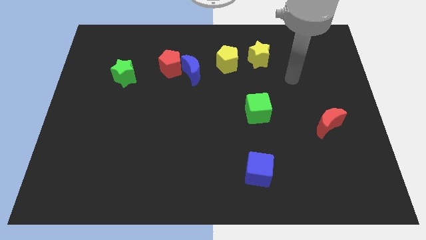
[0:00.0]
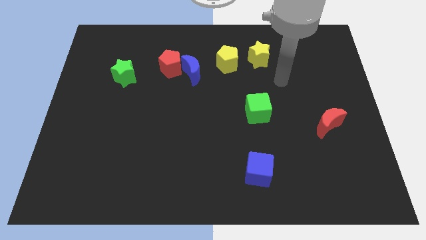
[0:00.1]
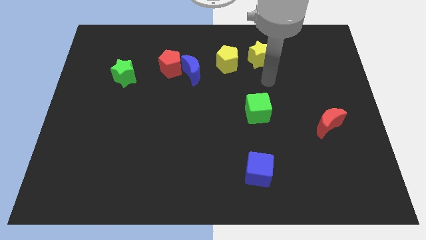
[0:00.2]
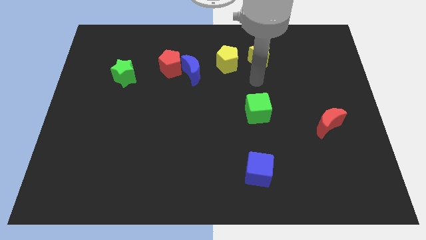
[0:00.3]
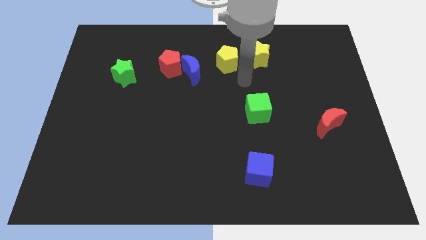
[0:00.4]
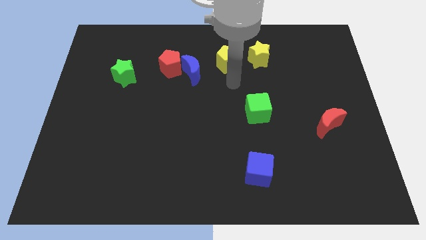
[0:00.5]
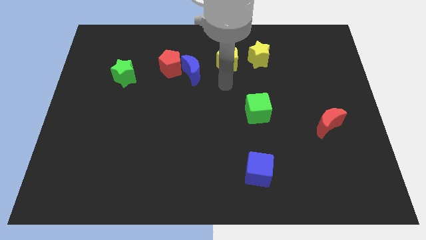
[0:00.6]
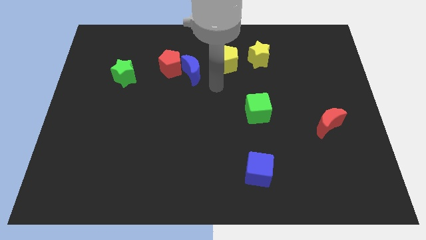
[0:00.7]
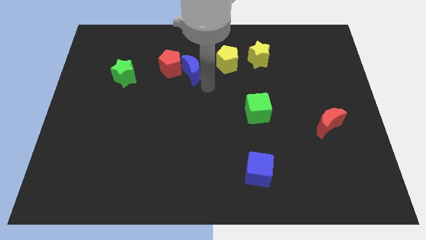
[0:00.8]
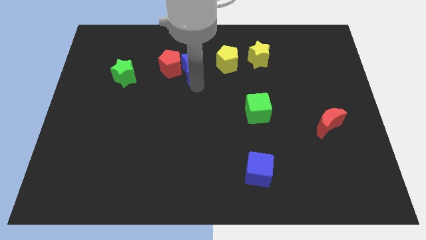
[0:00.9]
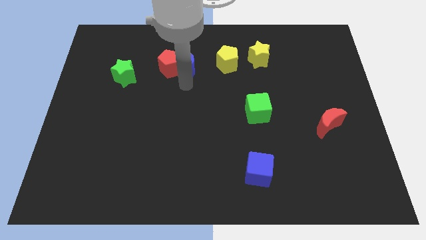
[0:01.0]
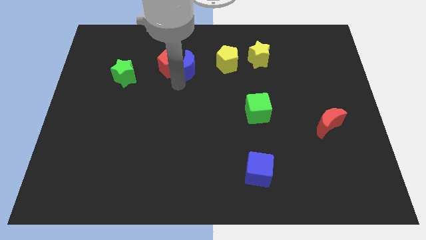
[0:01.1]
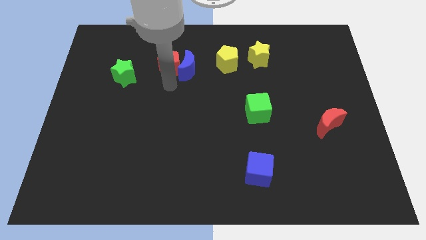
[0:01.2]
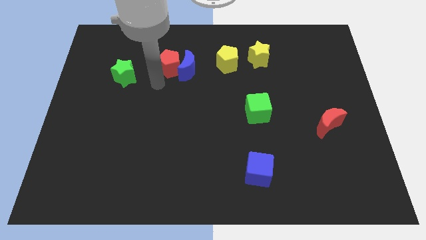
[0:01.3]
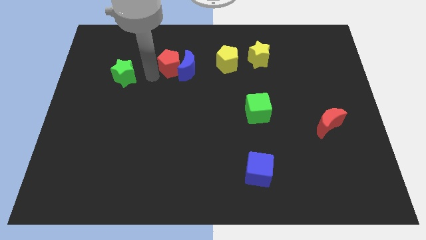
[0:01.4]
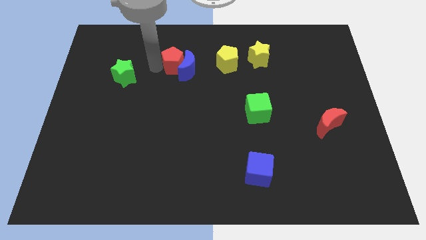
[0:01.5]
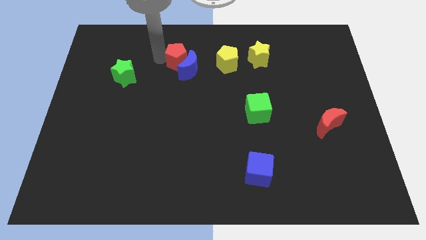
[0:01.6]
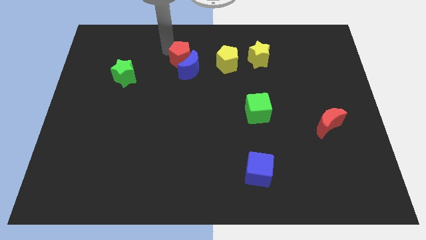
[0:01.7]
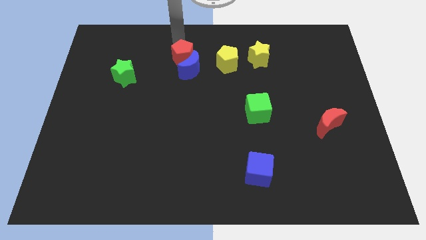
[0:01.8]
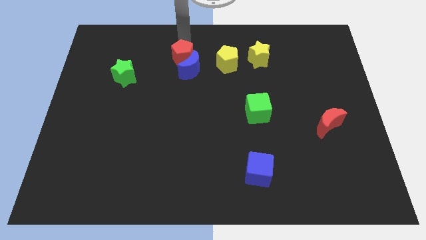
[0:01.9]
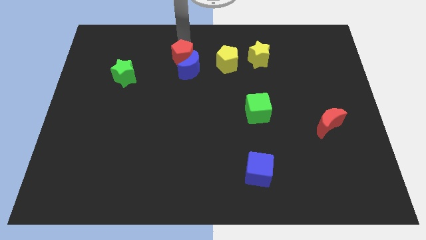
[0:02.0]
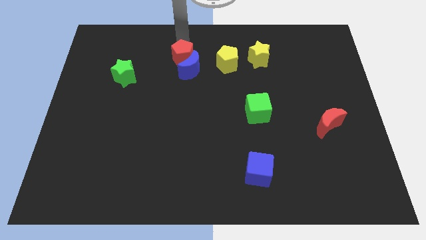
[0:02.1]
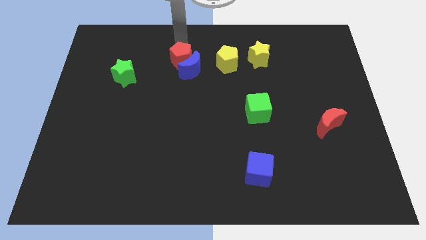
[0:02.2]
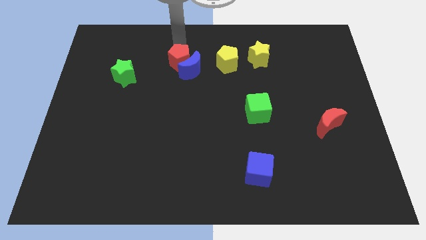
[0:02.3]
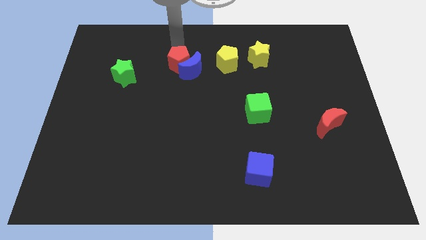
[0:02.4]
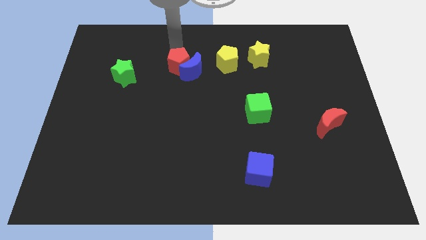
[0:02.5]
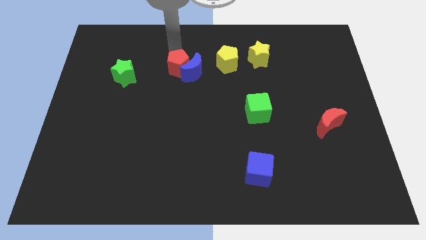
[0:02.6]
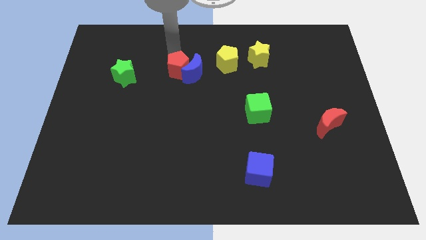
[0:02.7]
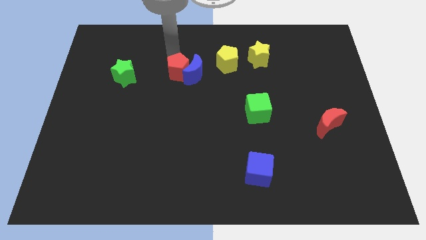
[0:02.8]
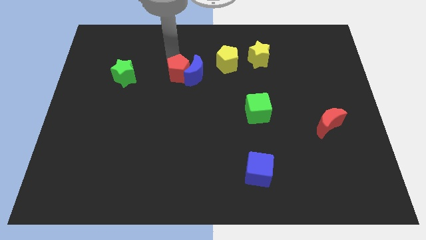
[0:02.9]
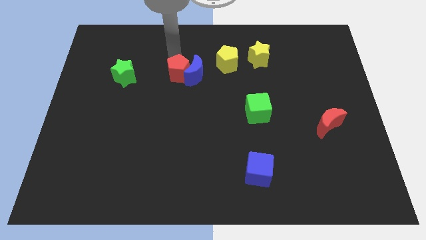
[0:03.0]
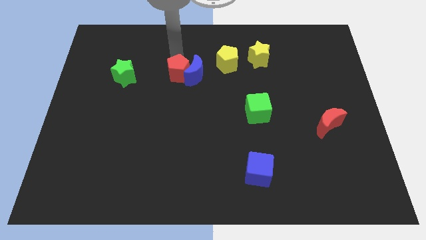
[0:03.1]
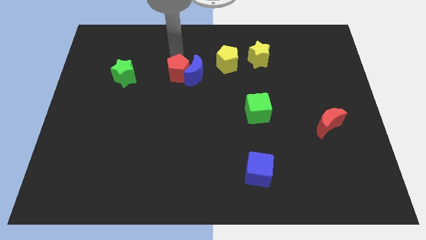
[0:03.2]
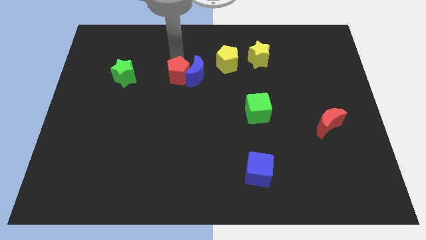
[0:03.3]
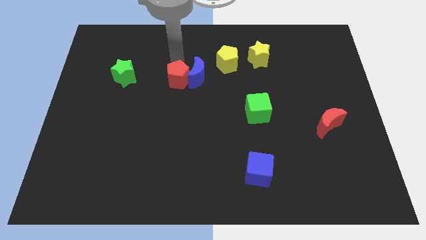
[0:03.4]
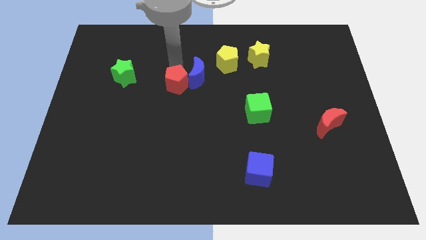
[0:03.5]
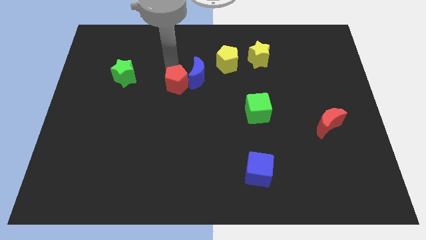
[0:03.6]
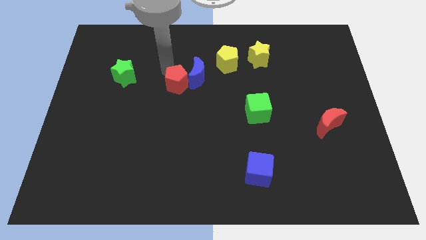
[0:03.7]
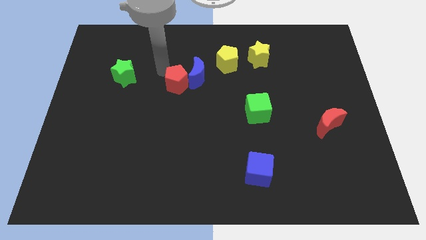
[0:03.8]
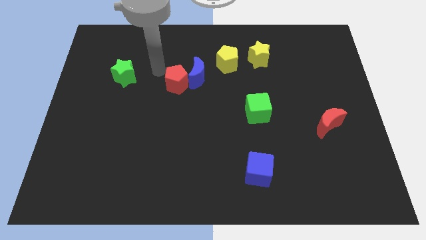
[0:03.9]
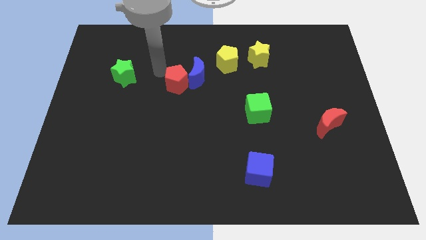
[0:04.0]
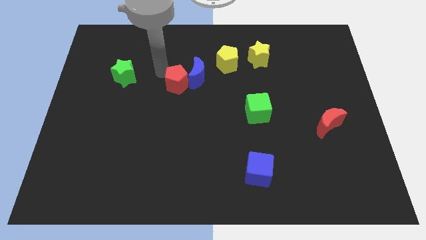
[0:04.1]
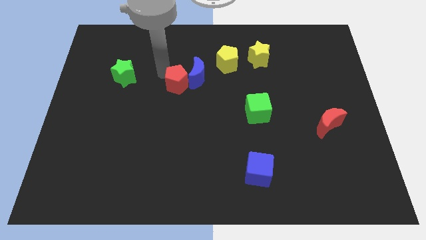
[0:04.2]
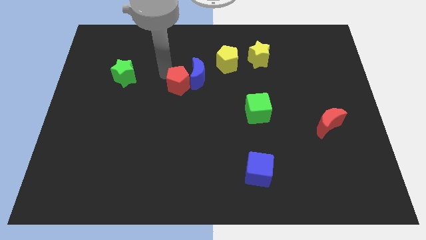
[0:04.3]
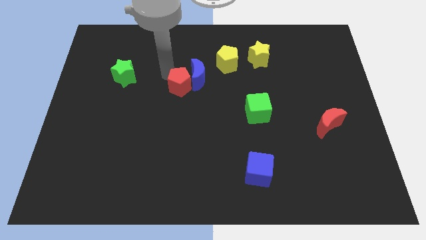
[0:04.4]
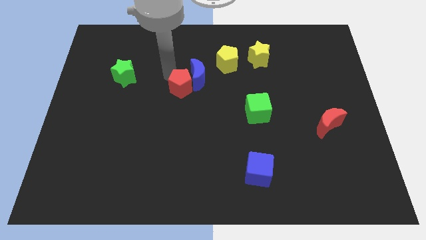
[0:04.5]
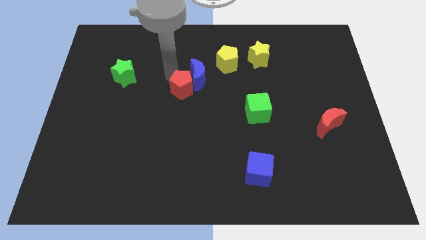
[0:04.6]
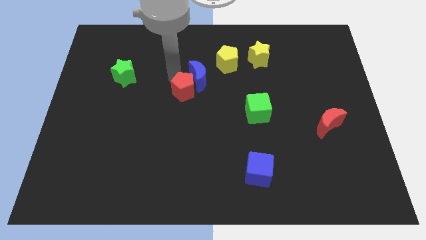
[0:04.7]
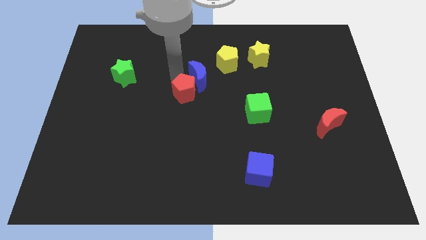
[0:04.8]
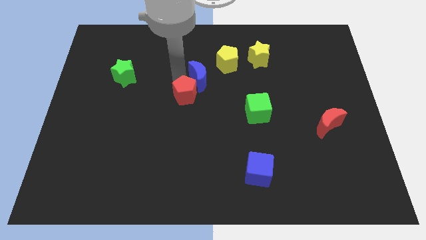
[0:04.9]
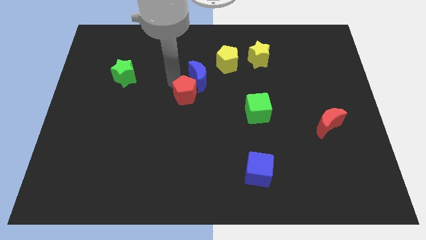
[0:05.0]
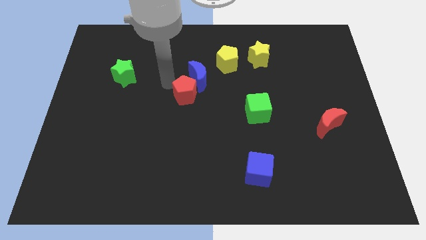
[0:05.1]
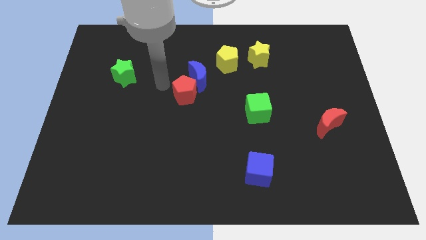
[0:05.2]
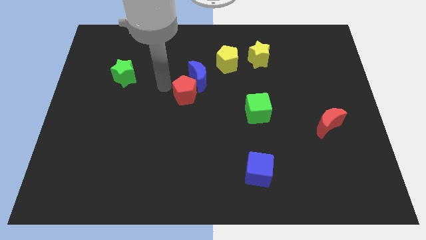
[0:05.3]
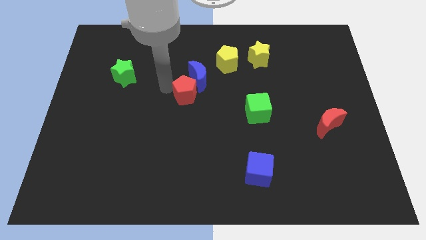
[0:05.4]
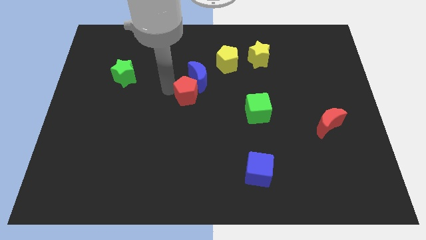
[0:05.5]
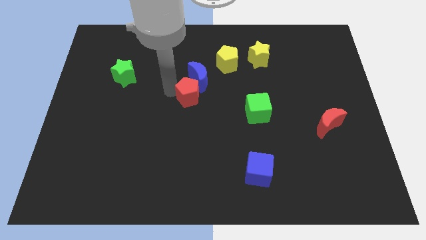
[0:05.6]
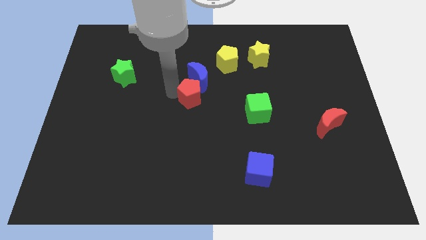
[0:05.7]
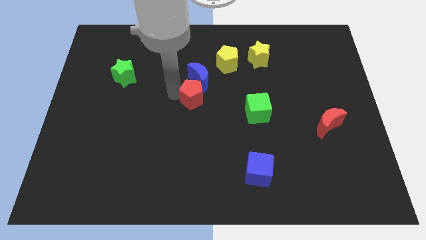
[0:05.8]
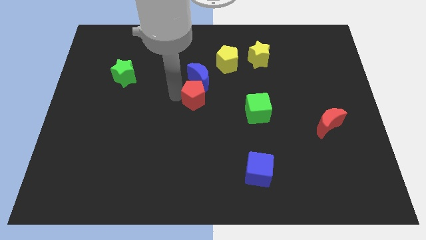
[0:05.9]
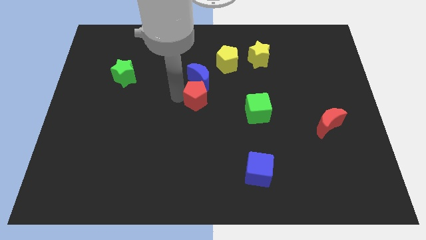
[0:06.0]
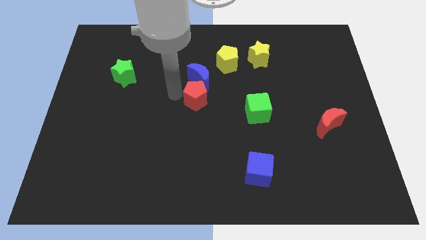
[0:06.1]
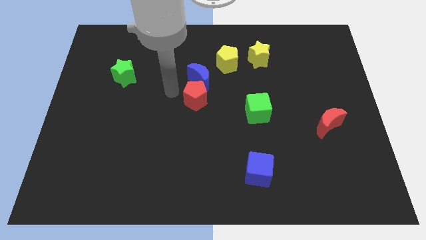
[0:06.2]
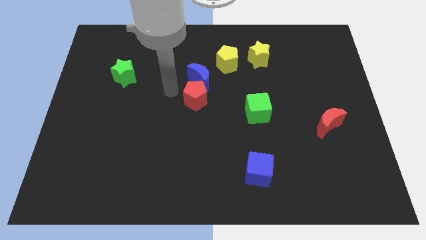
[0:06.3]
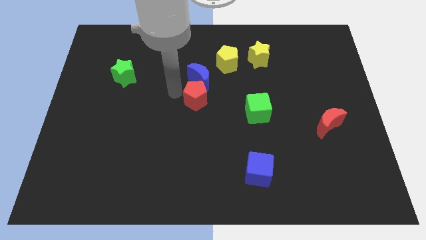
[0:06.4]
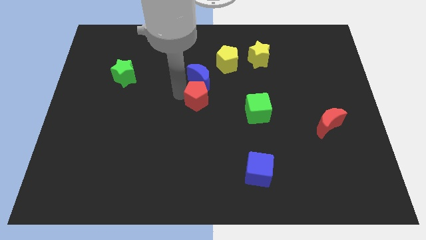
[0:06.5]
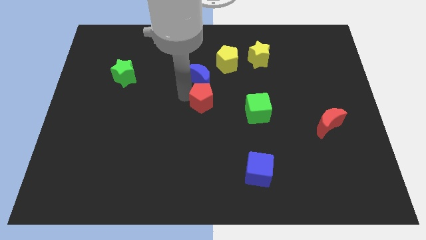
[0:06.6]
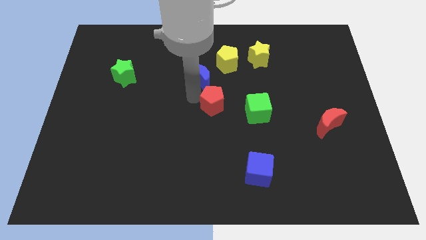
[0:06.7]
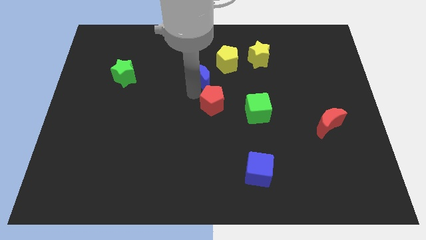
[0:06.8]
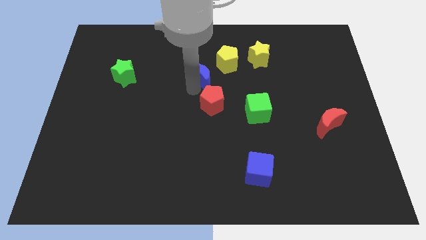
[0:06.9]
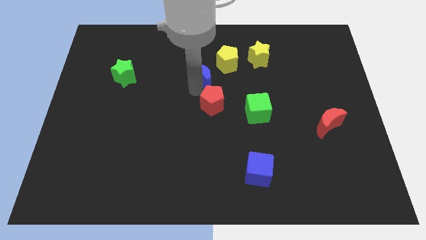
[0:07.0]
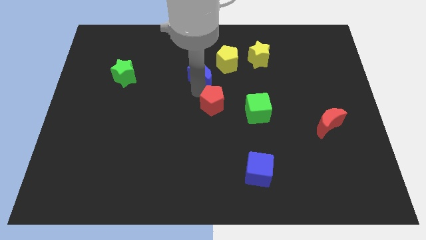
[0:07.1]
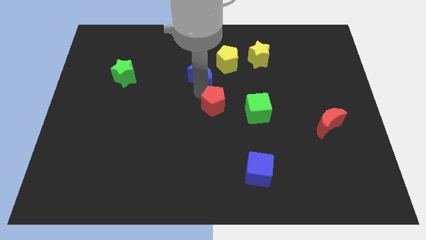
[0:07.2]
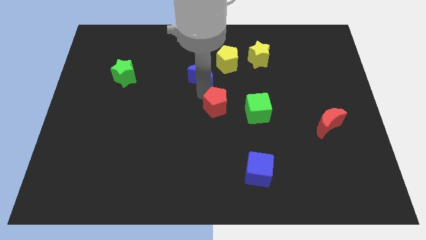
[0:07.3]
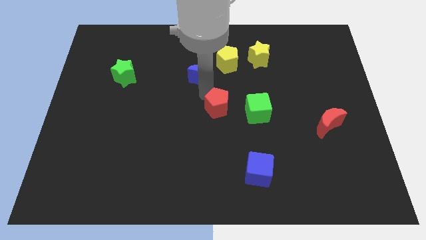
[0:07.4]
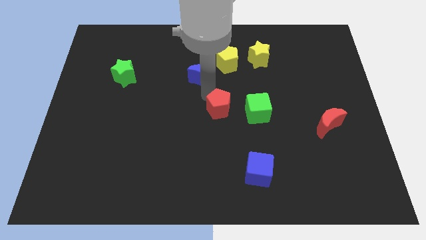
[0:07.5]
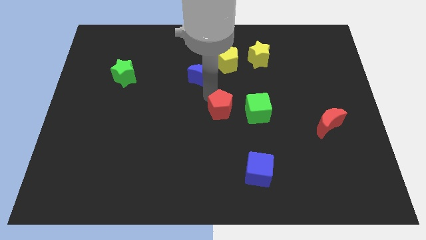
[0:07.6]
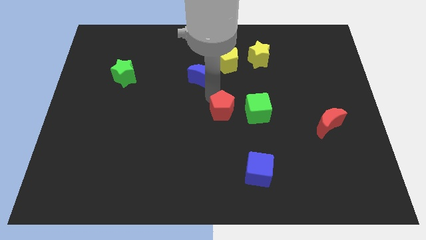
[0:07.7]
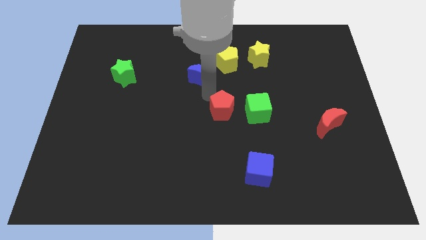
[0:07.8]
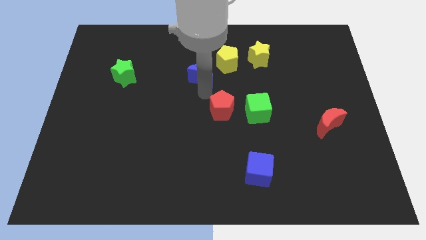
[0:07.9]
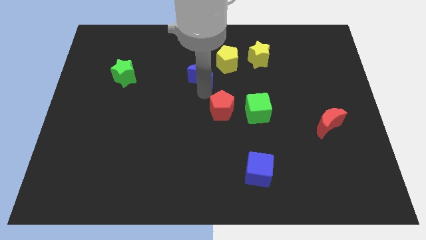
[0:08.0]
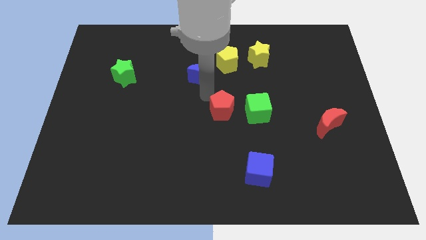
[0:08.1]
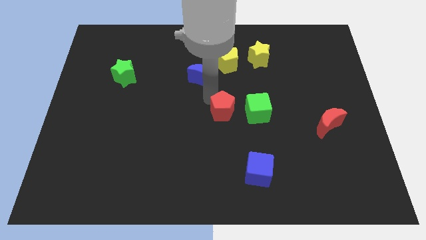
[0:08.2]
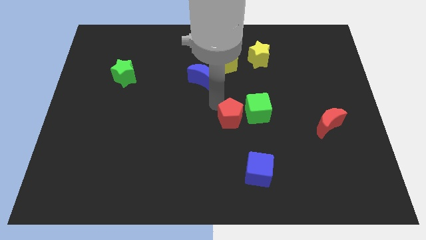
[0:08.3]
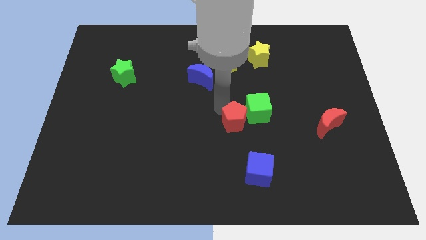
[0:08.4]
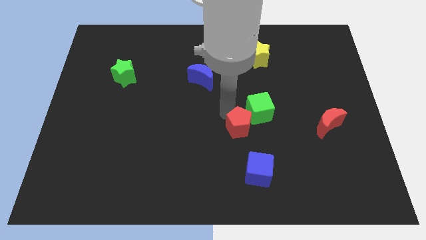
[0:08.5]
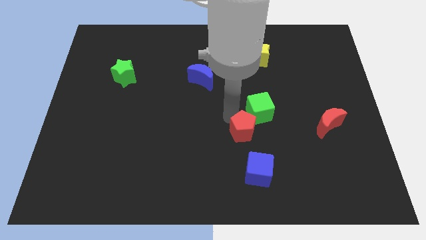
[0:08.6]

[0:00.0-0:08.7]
push the red pentagon to the bottom side of the green cube
